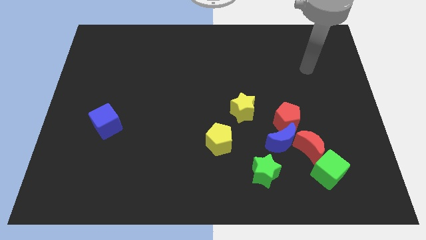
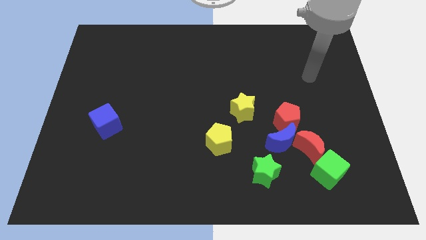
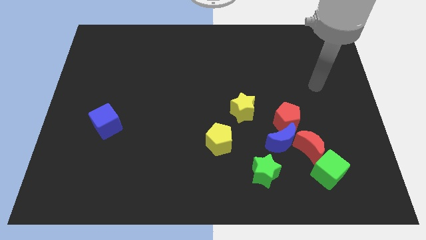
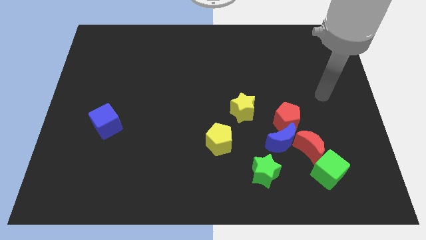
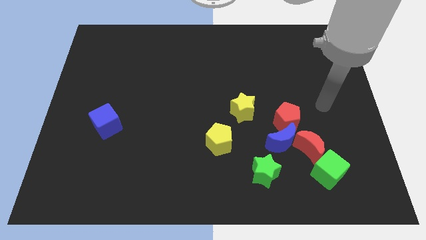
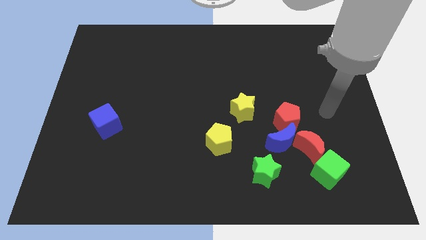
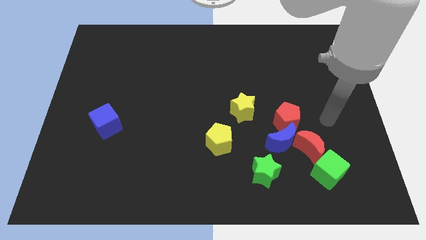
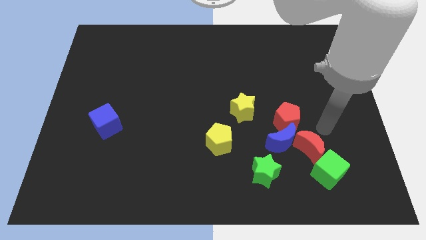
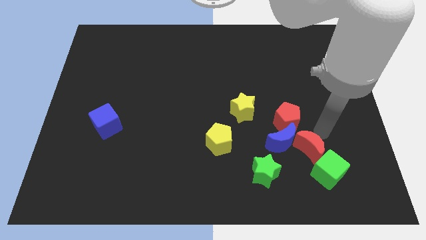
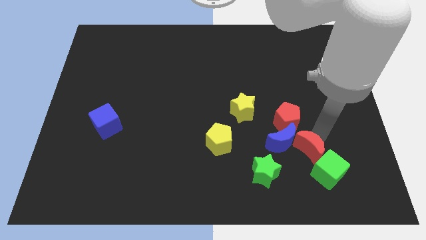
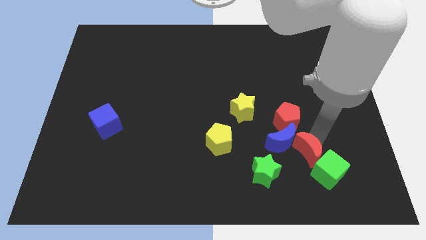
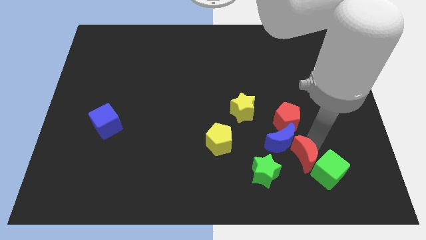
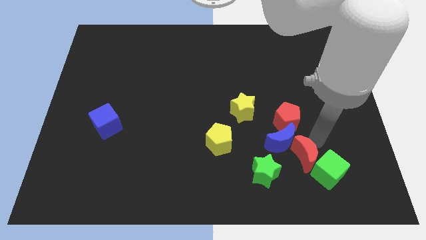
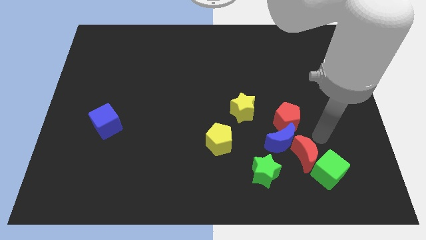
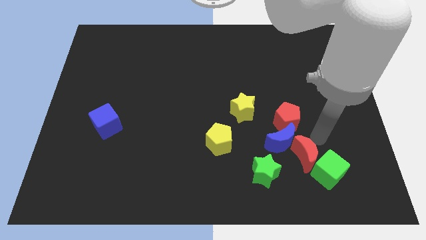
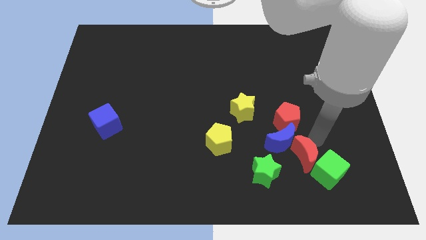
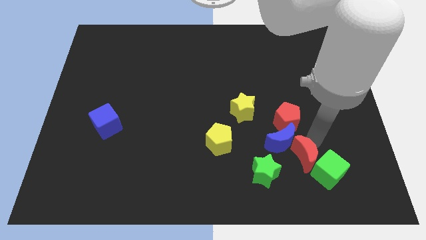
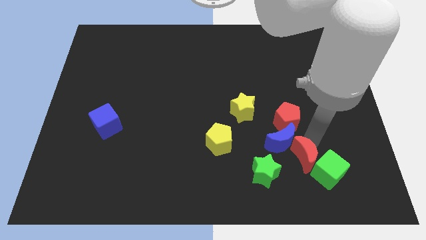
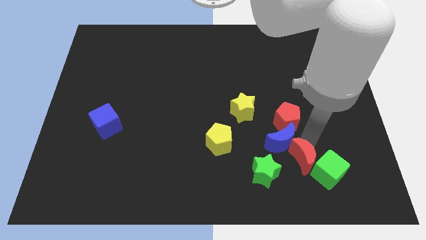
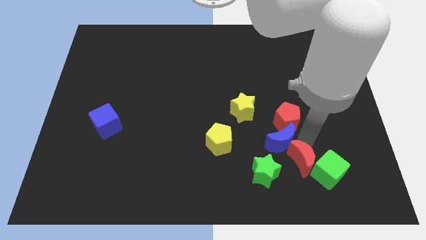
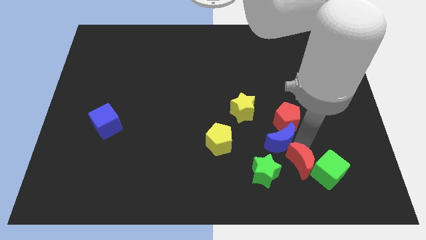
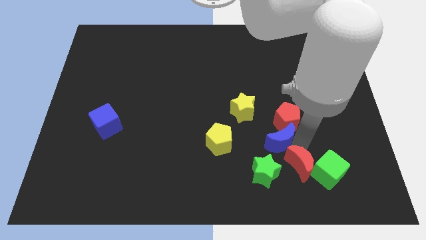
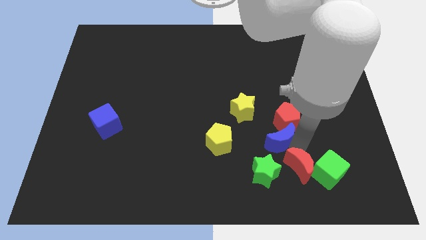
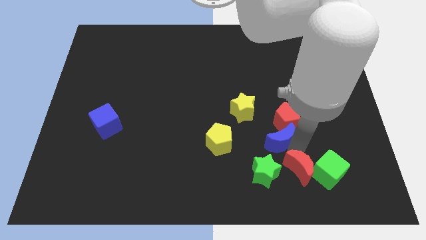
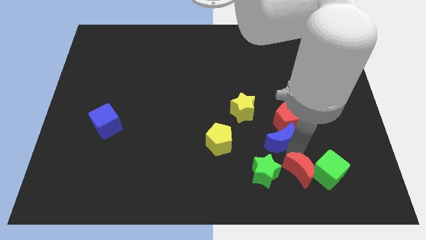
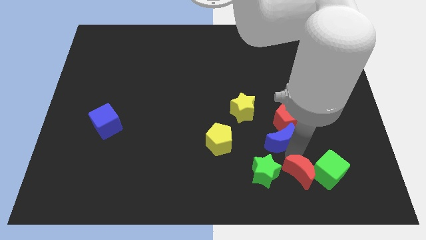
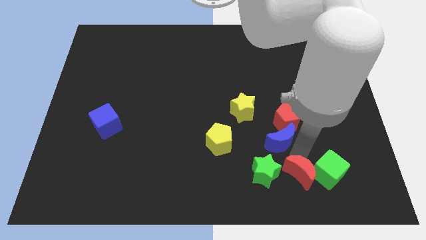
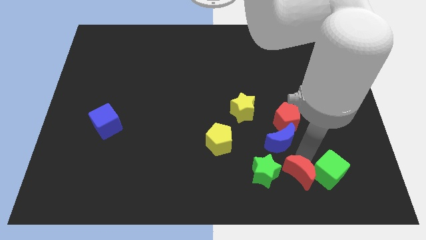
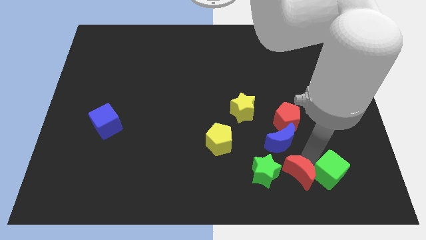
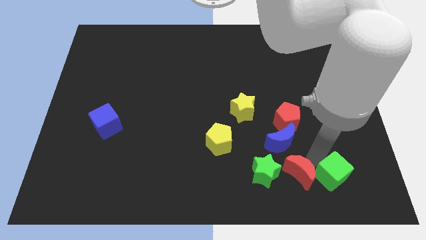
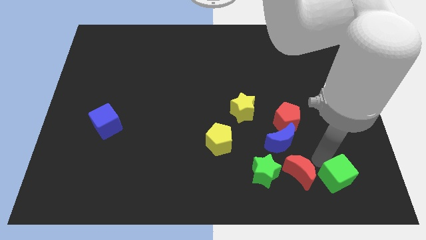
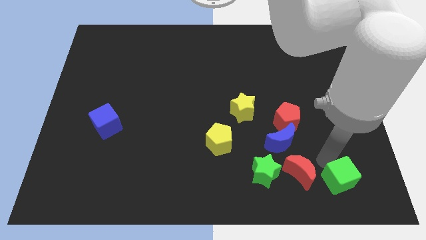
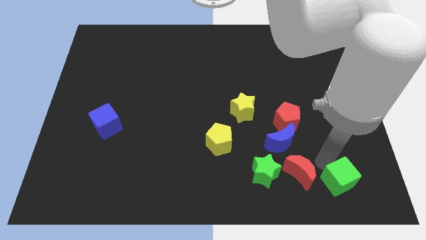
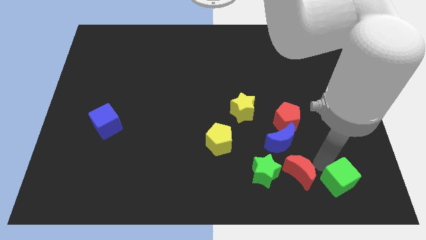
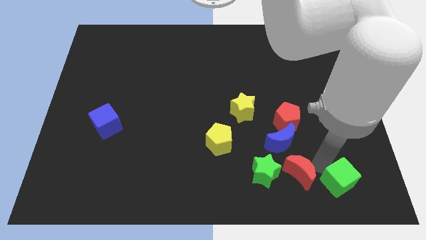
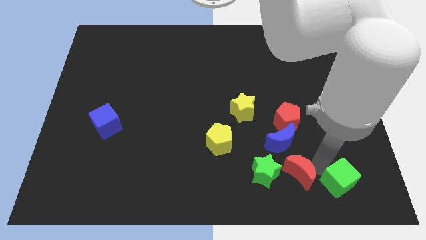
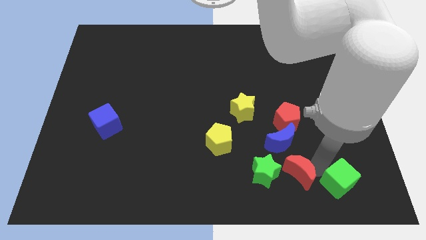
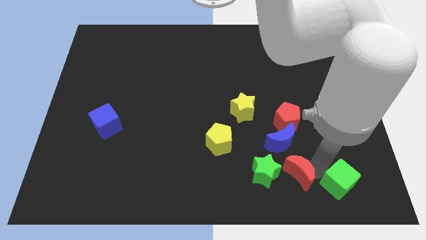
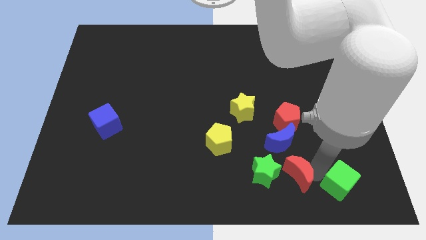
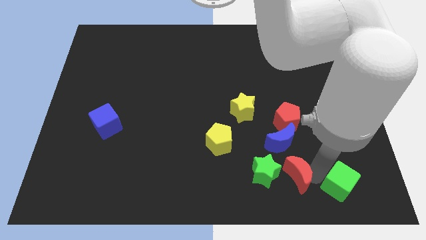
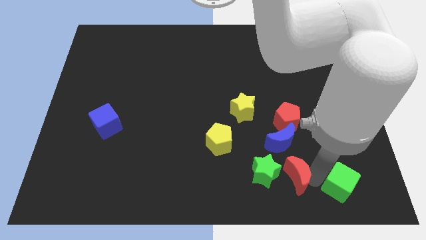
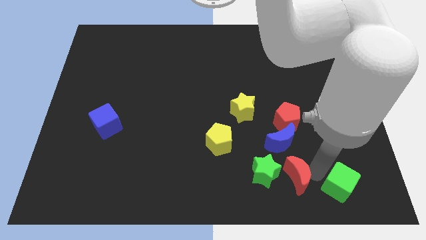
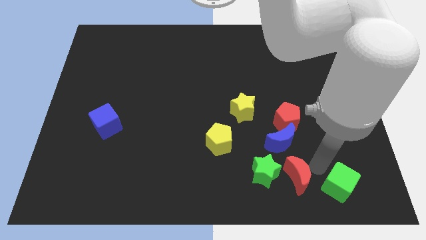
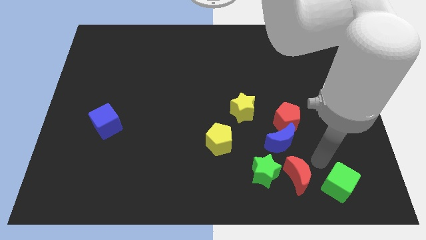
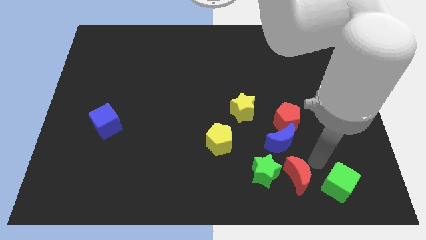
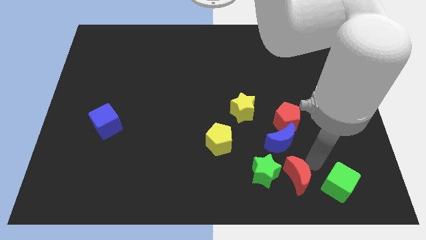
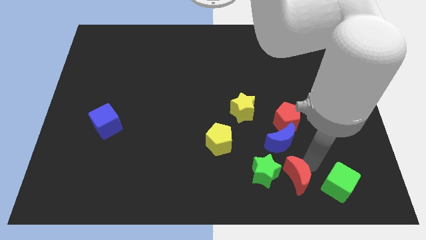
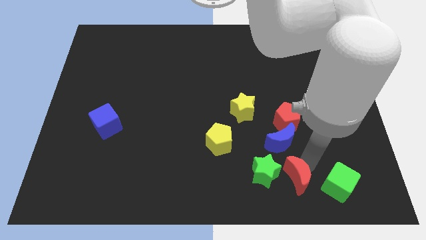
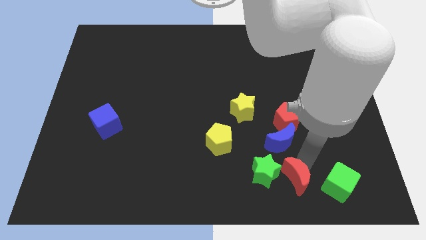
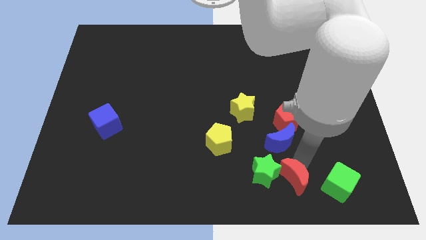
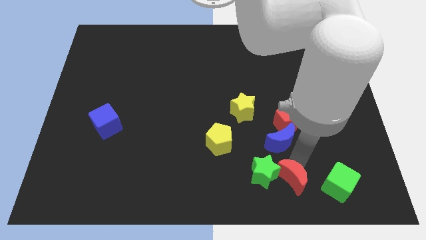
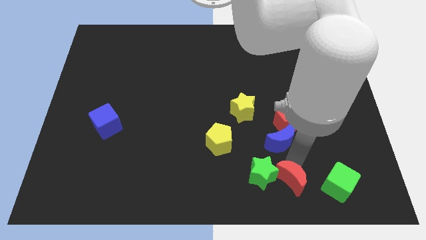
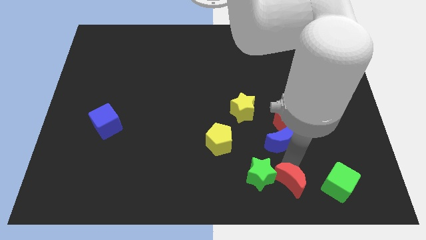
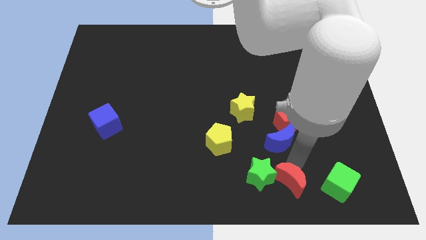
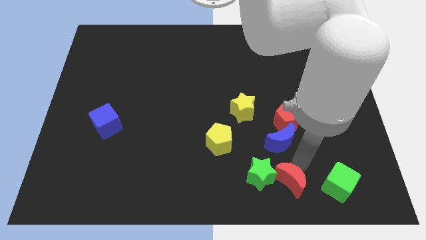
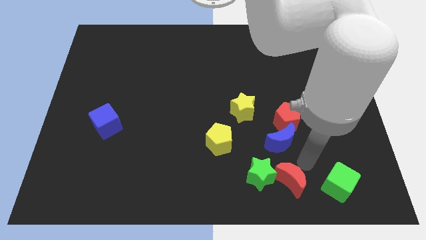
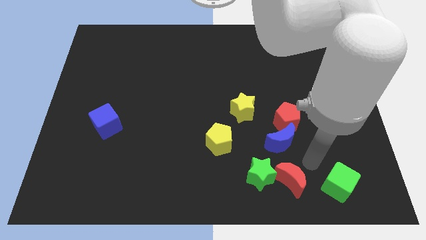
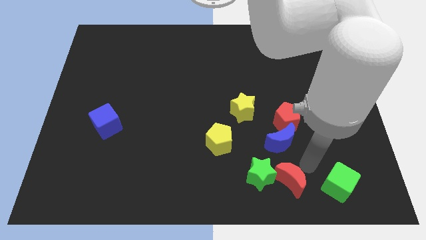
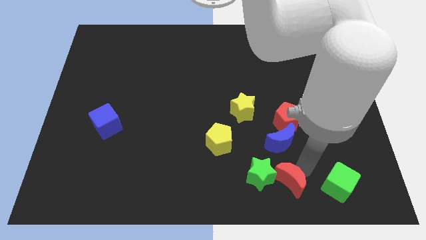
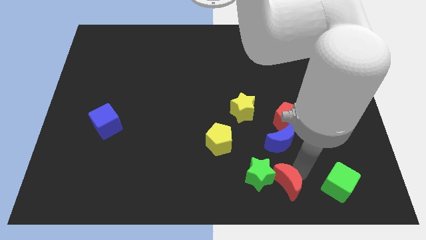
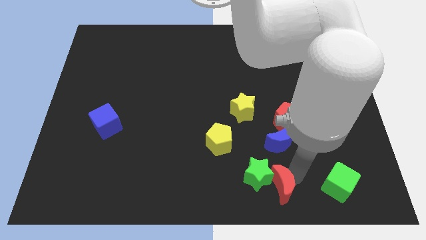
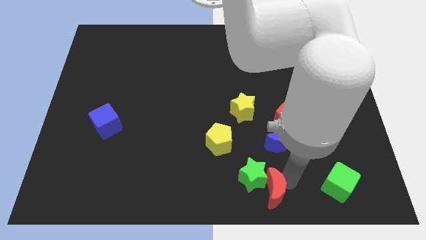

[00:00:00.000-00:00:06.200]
move the red moon to the bottom side
